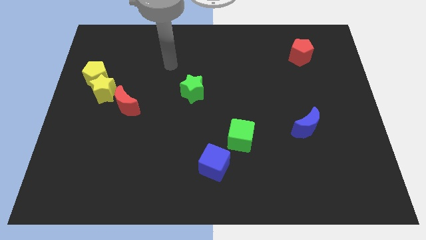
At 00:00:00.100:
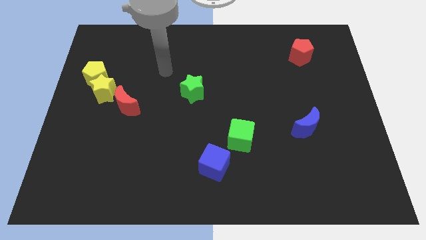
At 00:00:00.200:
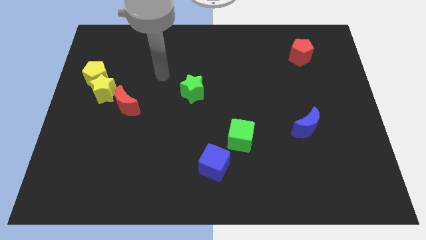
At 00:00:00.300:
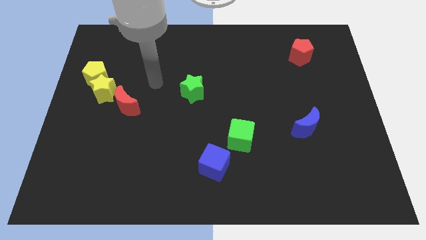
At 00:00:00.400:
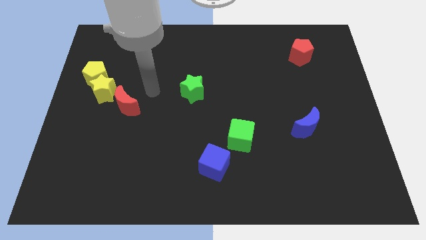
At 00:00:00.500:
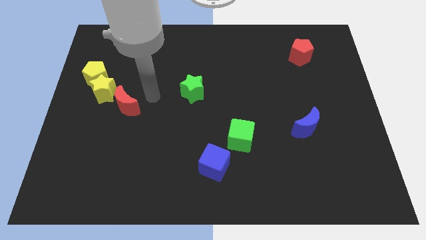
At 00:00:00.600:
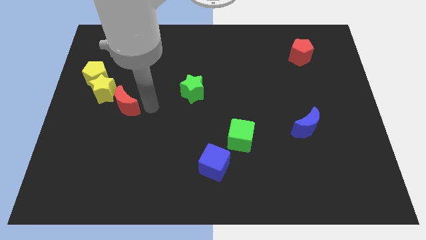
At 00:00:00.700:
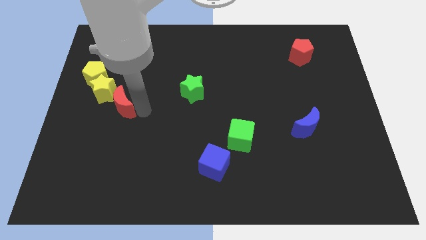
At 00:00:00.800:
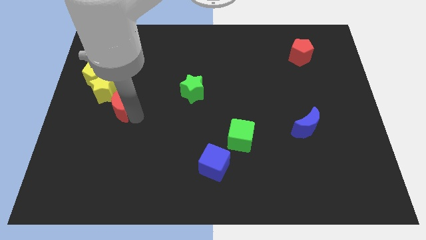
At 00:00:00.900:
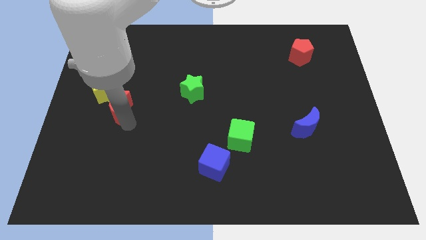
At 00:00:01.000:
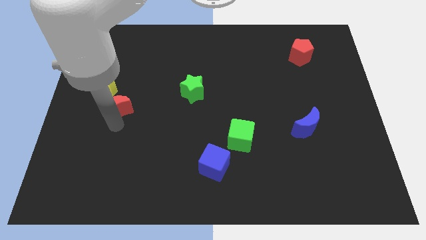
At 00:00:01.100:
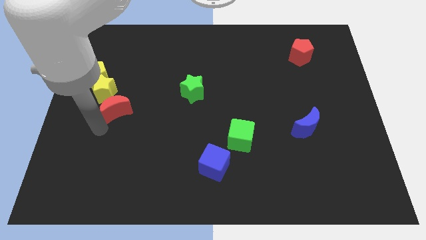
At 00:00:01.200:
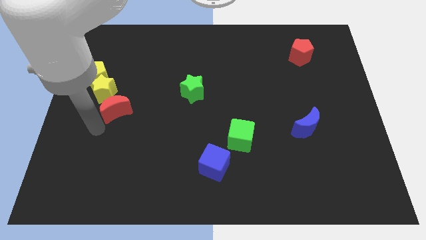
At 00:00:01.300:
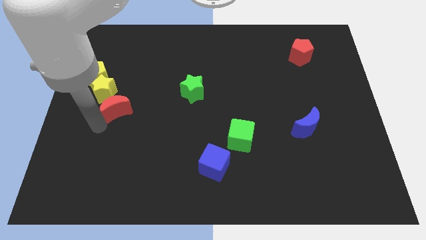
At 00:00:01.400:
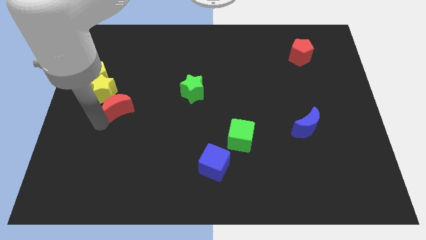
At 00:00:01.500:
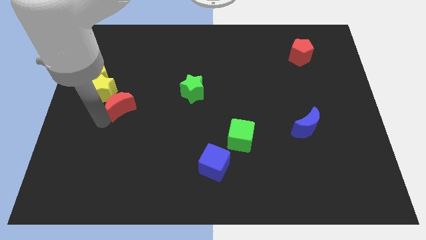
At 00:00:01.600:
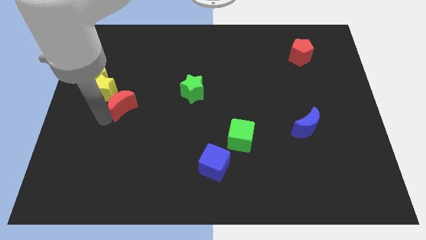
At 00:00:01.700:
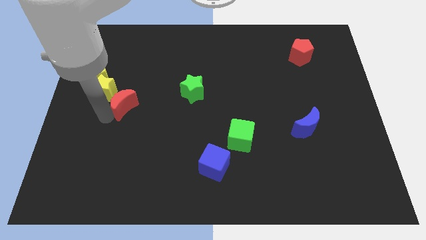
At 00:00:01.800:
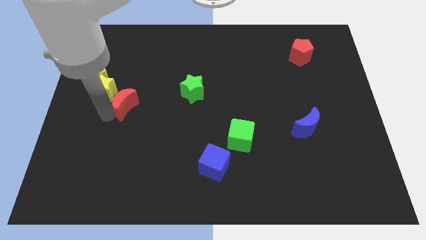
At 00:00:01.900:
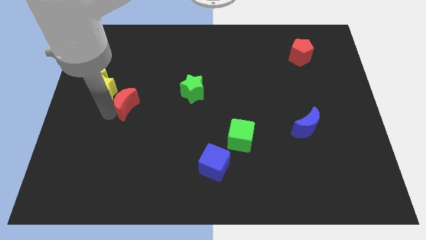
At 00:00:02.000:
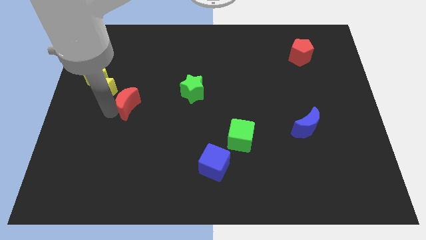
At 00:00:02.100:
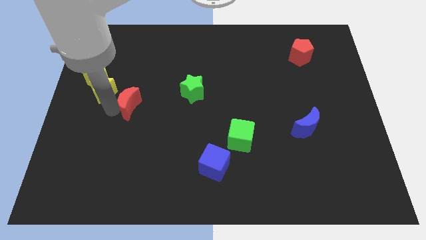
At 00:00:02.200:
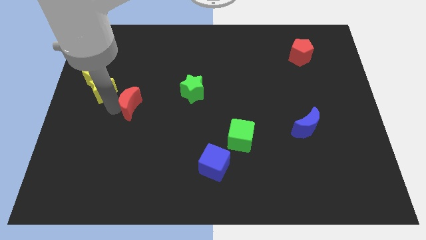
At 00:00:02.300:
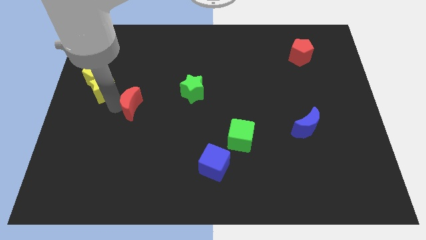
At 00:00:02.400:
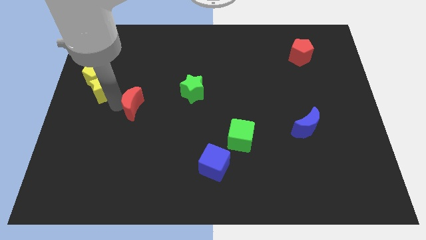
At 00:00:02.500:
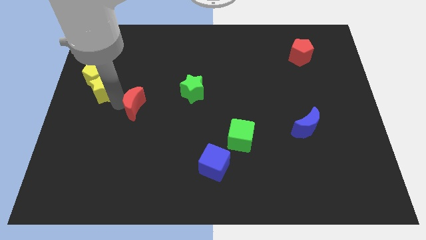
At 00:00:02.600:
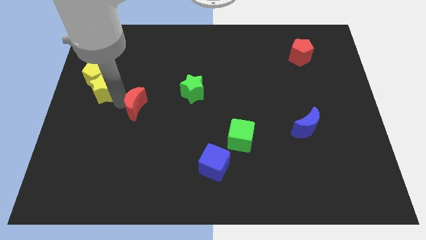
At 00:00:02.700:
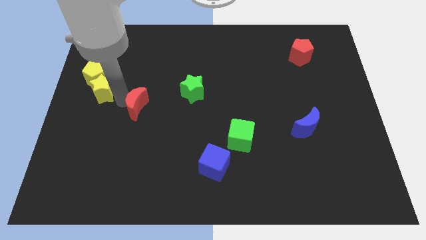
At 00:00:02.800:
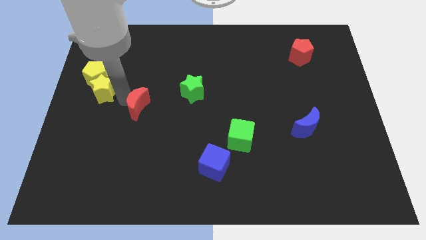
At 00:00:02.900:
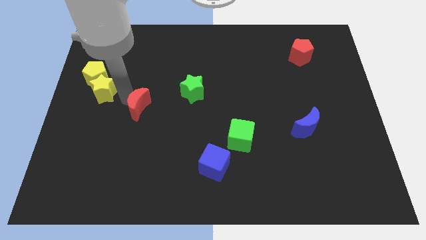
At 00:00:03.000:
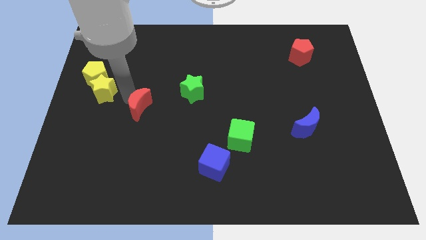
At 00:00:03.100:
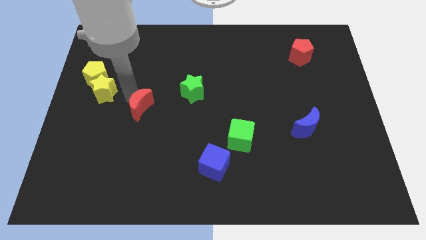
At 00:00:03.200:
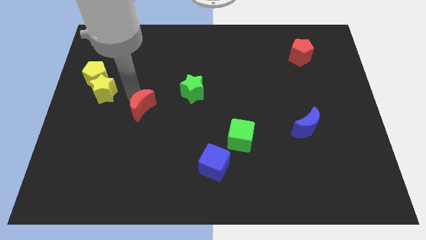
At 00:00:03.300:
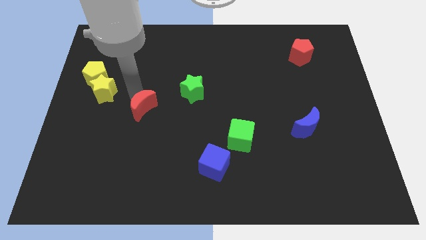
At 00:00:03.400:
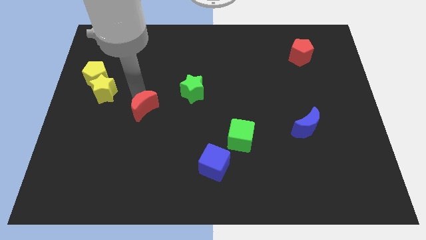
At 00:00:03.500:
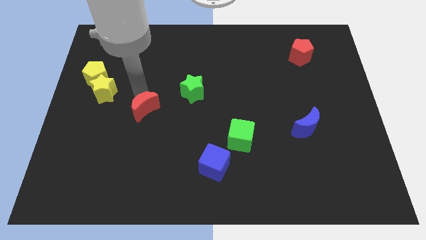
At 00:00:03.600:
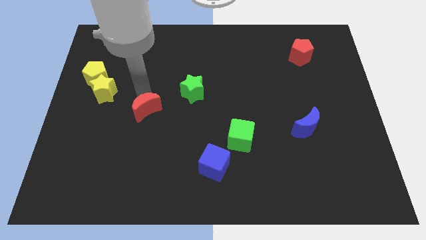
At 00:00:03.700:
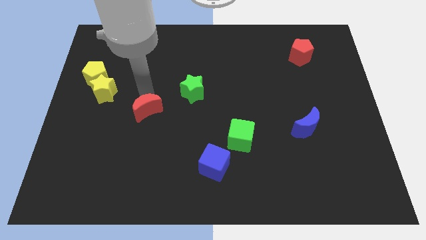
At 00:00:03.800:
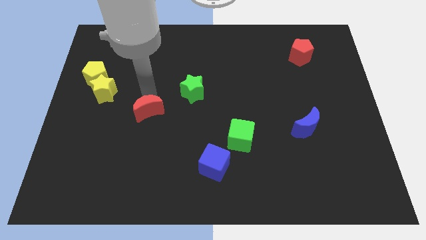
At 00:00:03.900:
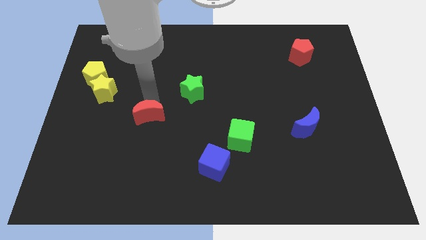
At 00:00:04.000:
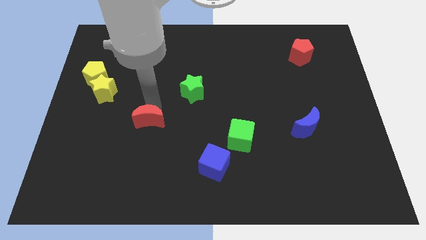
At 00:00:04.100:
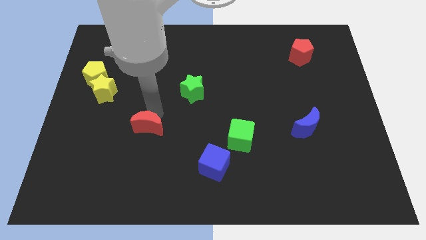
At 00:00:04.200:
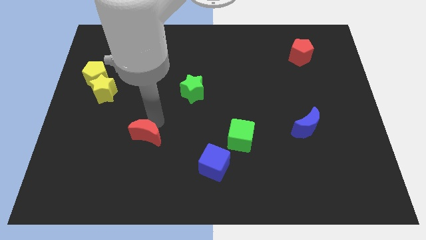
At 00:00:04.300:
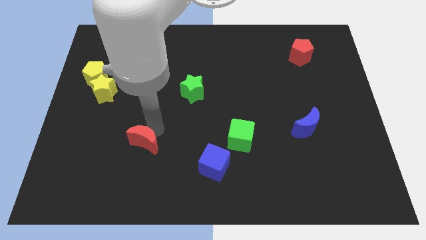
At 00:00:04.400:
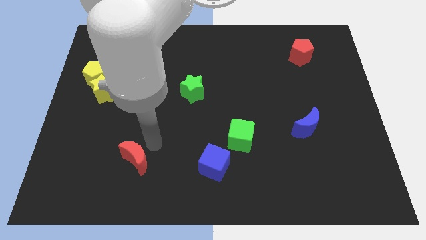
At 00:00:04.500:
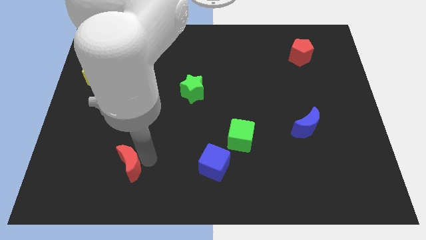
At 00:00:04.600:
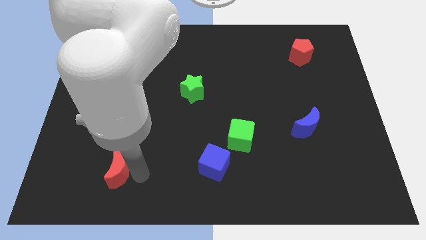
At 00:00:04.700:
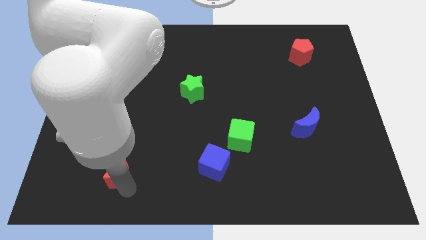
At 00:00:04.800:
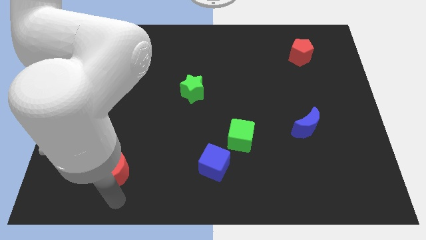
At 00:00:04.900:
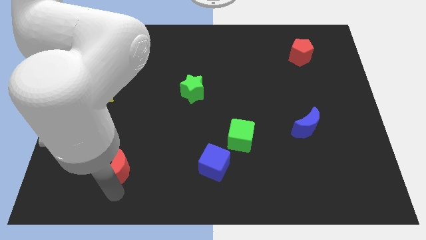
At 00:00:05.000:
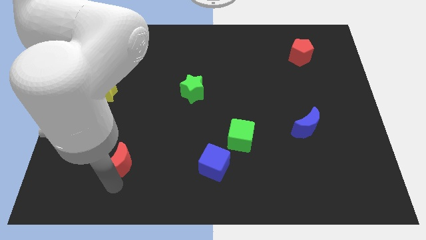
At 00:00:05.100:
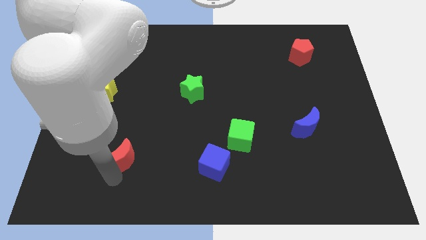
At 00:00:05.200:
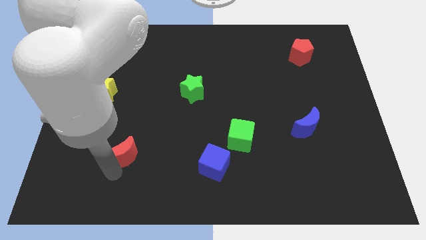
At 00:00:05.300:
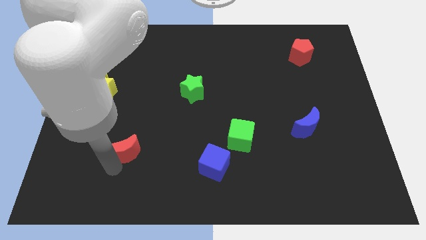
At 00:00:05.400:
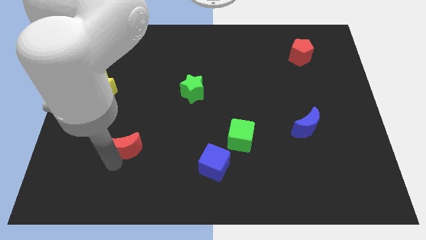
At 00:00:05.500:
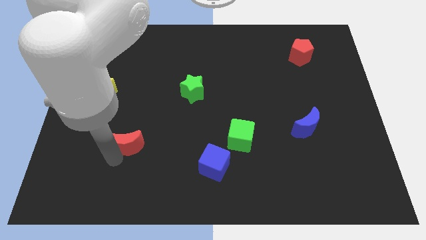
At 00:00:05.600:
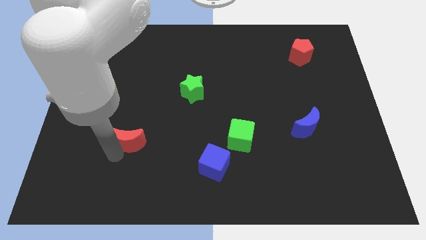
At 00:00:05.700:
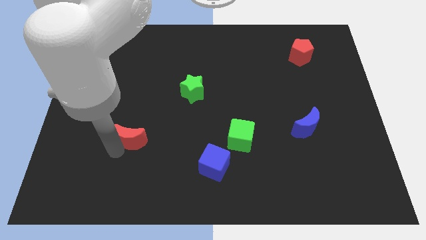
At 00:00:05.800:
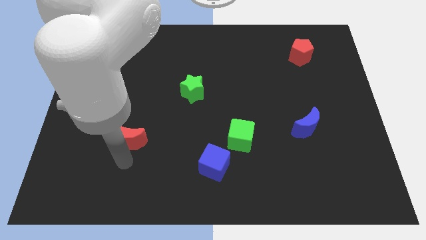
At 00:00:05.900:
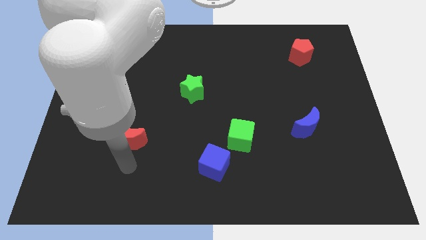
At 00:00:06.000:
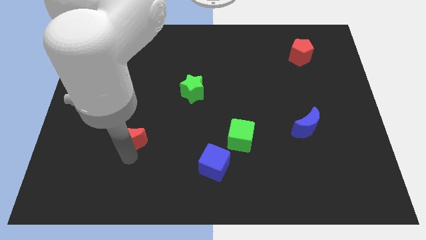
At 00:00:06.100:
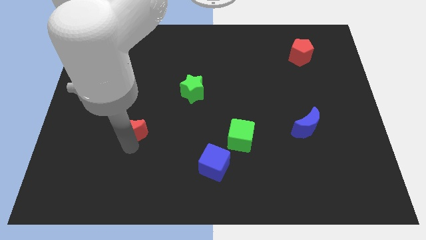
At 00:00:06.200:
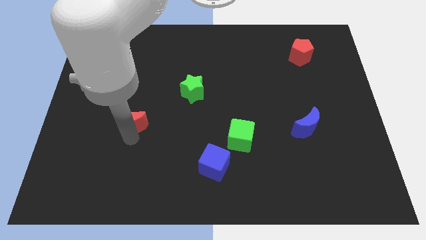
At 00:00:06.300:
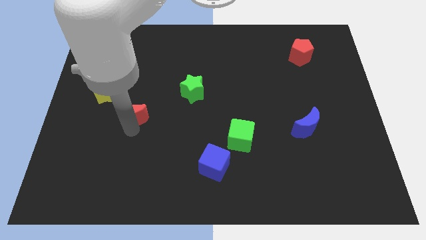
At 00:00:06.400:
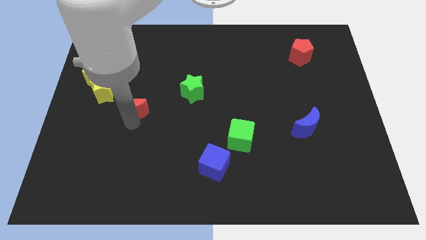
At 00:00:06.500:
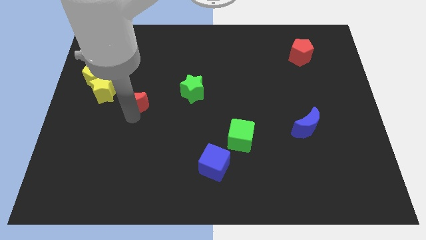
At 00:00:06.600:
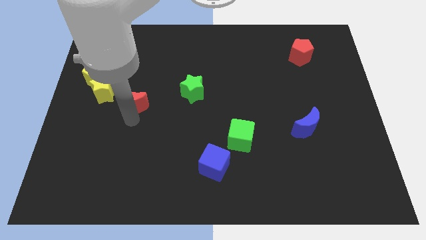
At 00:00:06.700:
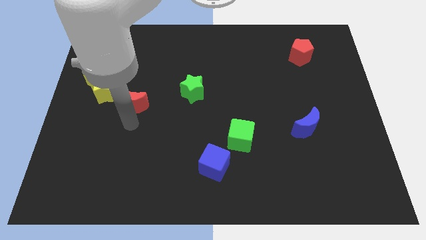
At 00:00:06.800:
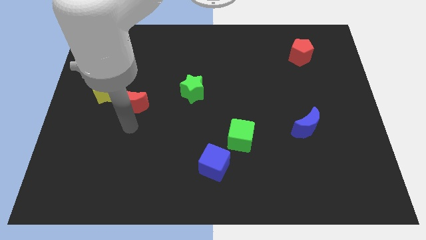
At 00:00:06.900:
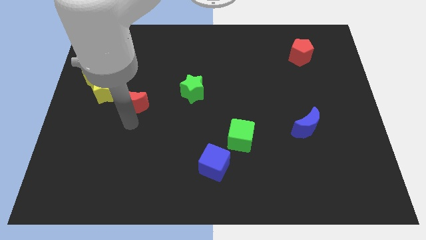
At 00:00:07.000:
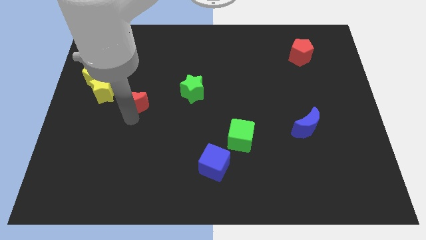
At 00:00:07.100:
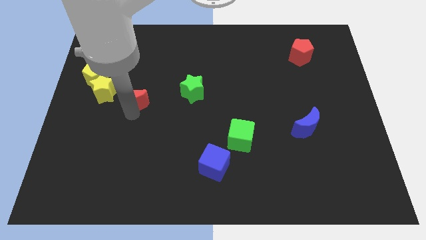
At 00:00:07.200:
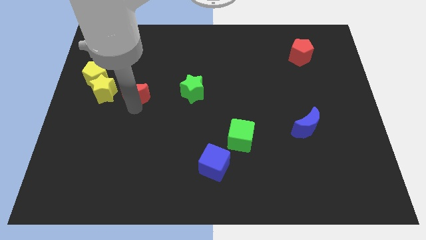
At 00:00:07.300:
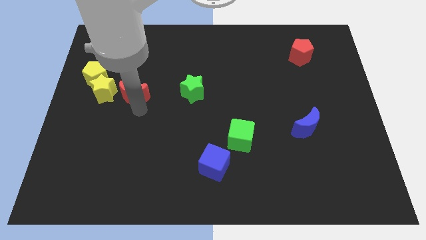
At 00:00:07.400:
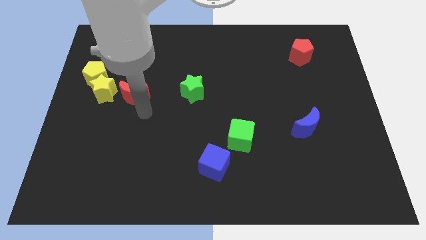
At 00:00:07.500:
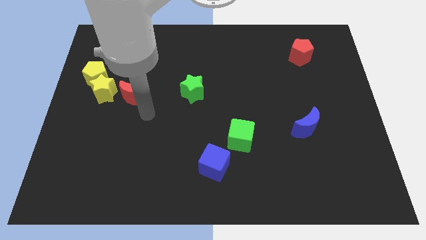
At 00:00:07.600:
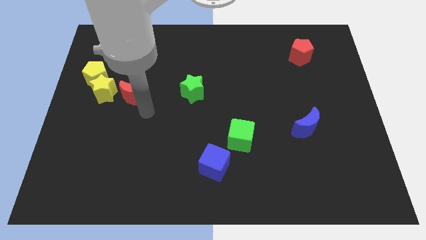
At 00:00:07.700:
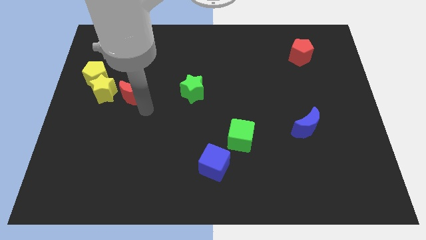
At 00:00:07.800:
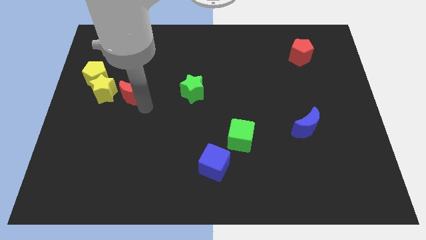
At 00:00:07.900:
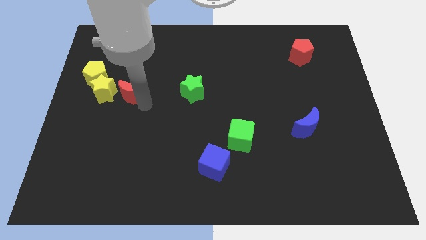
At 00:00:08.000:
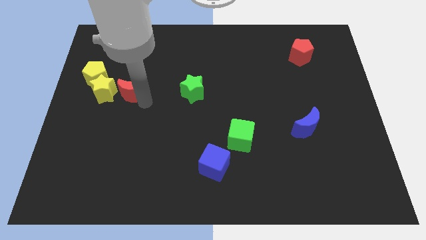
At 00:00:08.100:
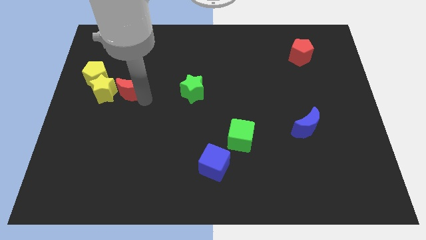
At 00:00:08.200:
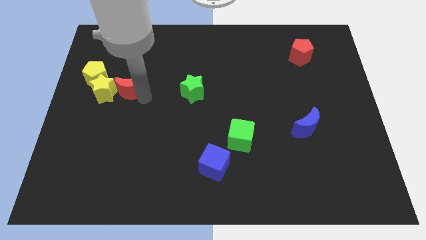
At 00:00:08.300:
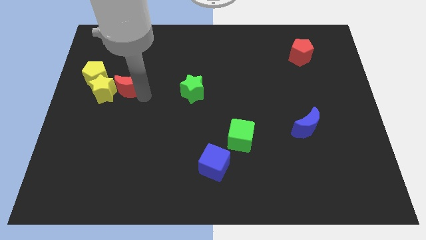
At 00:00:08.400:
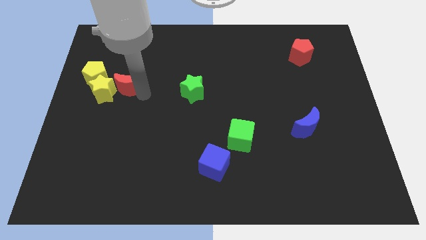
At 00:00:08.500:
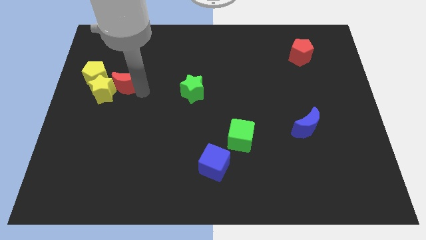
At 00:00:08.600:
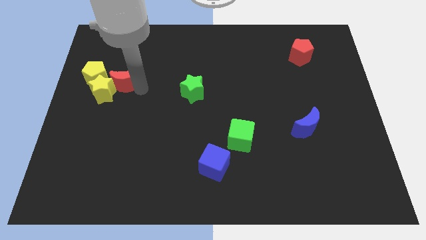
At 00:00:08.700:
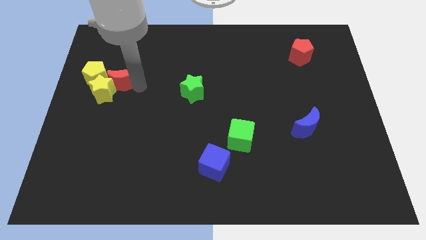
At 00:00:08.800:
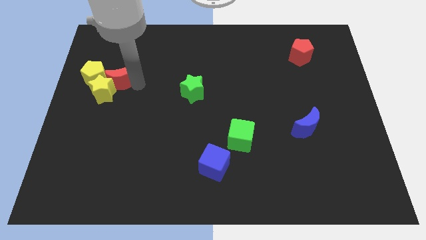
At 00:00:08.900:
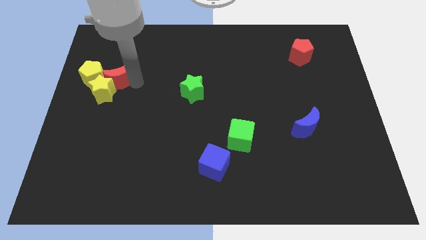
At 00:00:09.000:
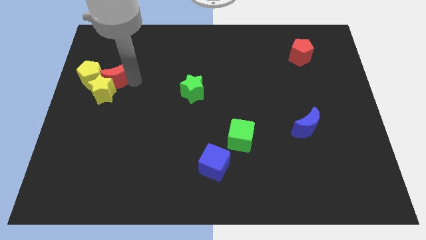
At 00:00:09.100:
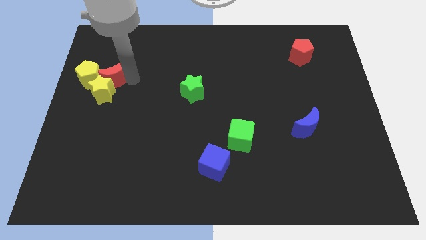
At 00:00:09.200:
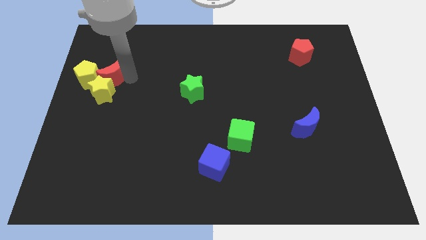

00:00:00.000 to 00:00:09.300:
push the red moon next to the yellow pentagon
